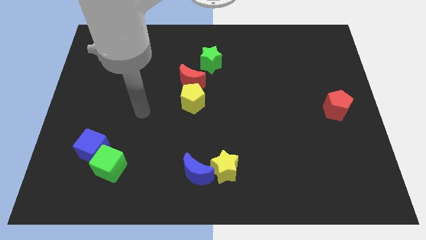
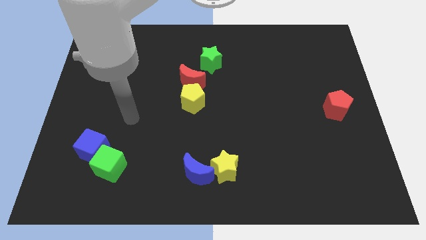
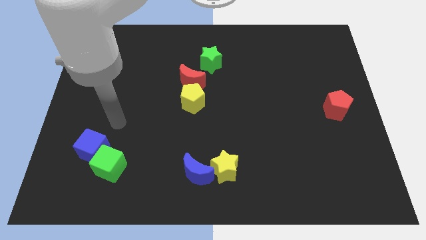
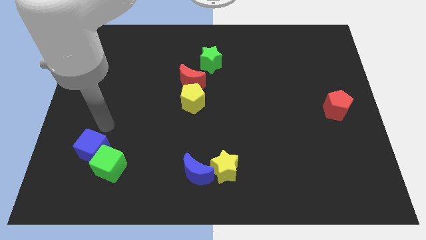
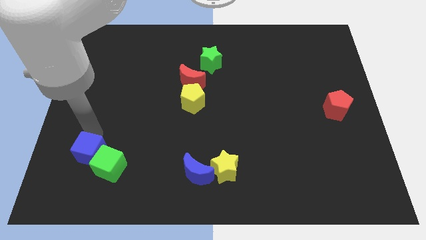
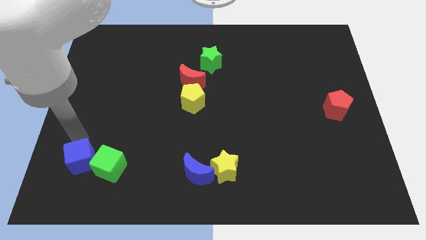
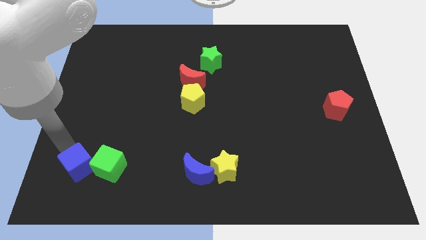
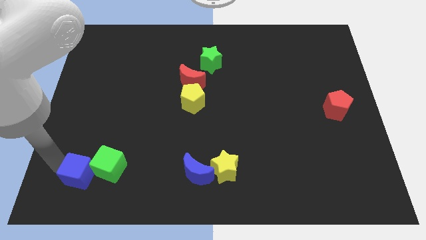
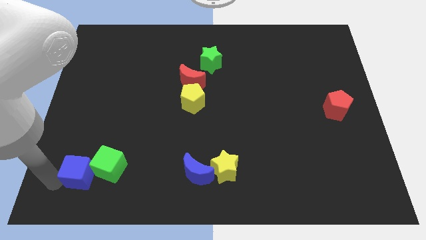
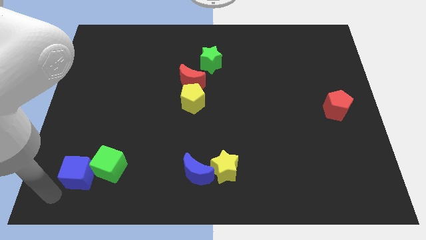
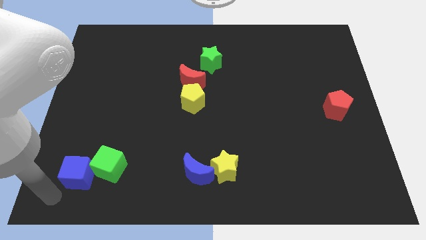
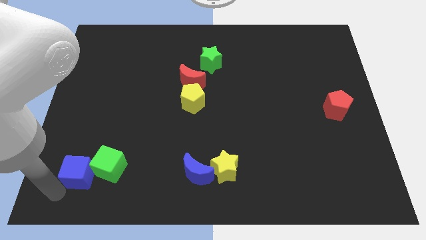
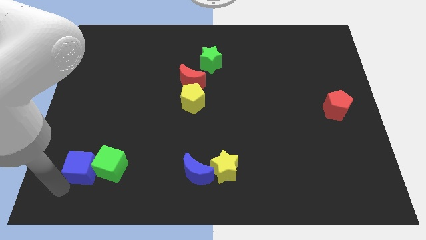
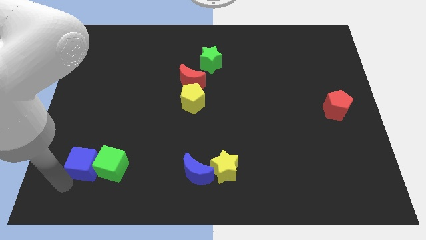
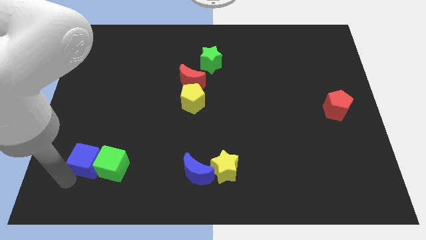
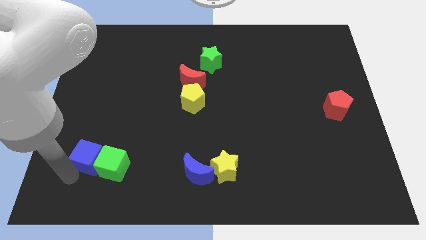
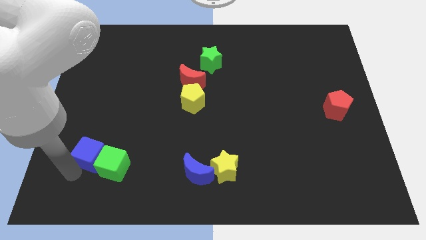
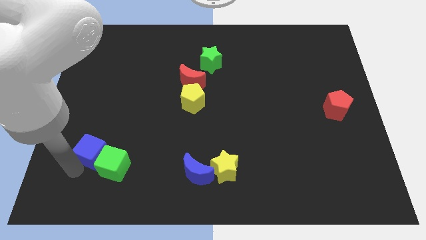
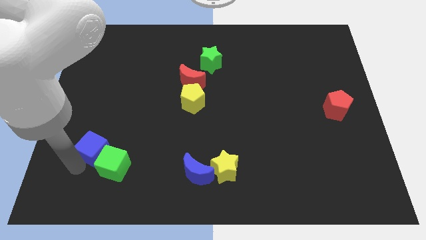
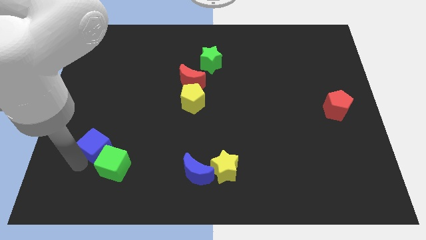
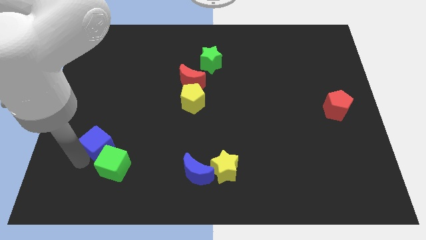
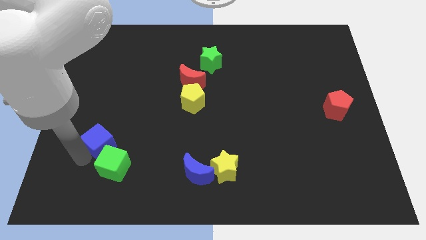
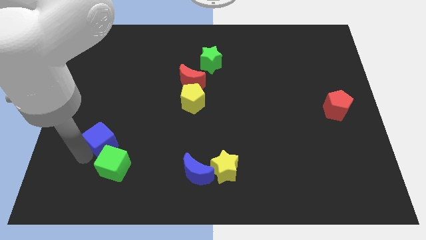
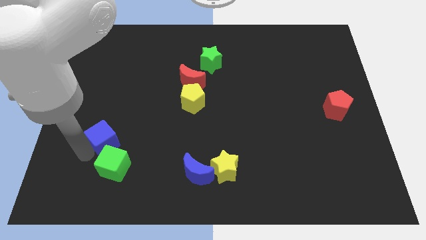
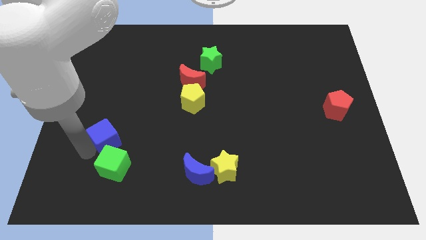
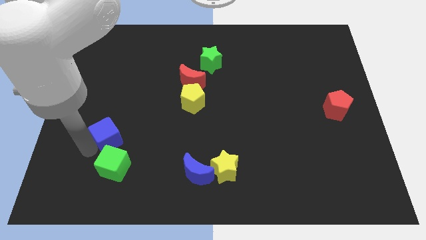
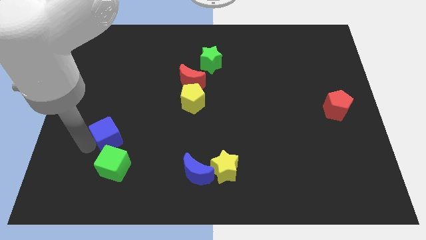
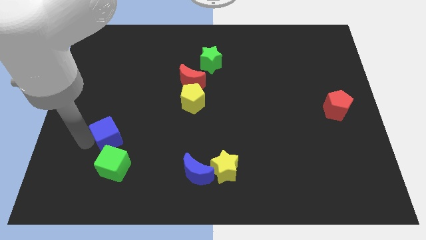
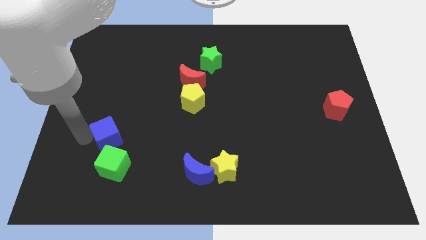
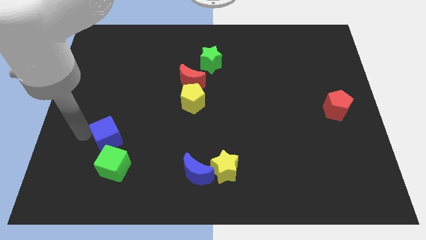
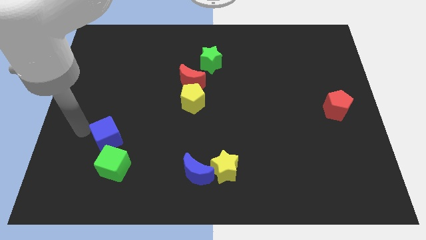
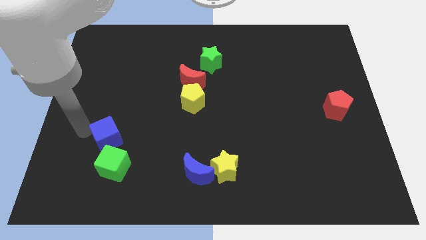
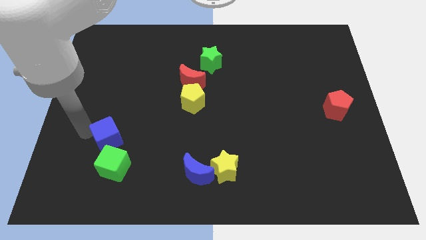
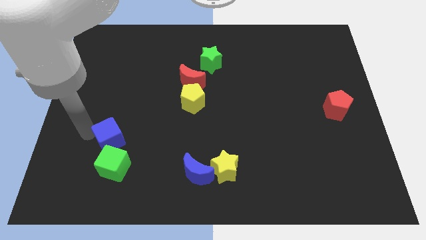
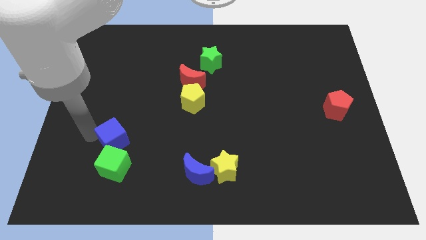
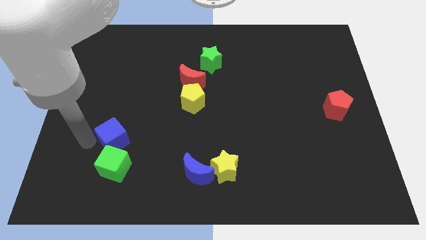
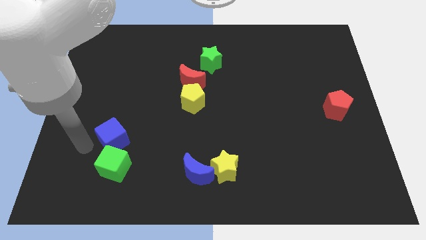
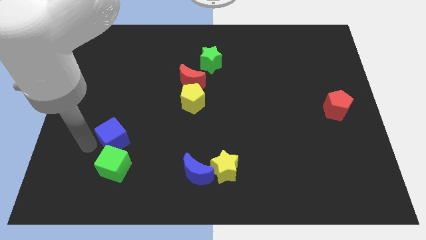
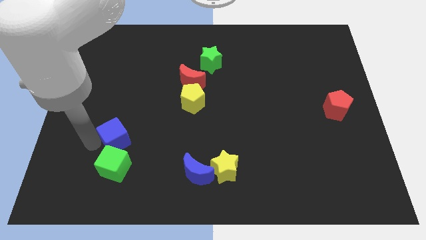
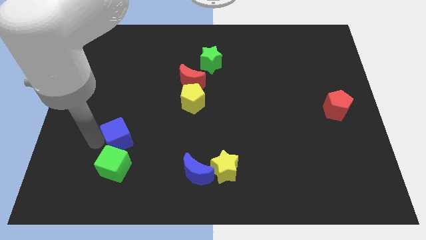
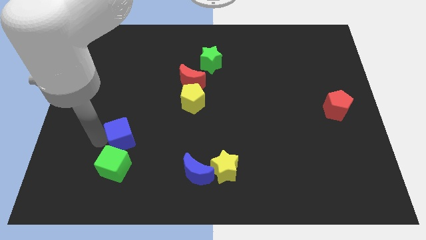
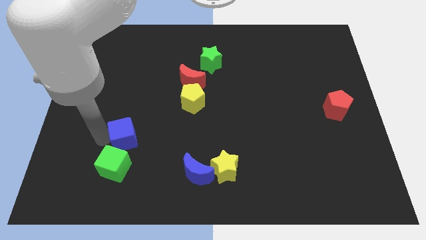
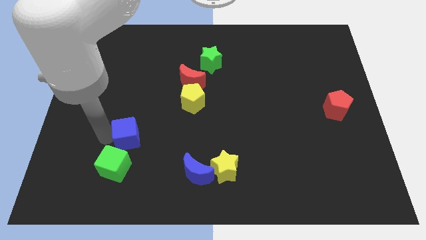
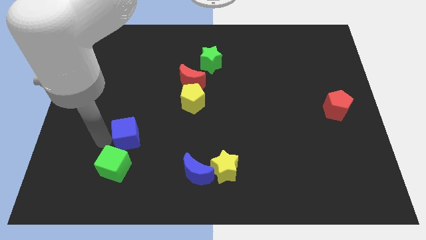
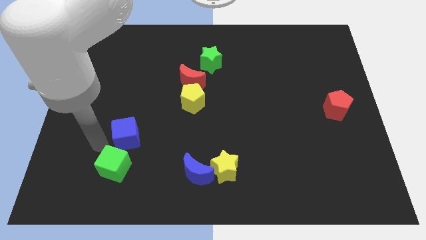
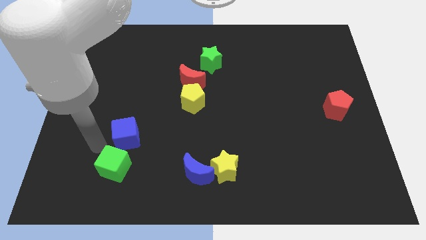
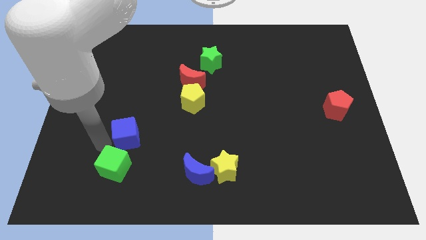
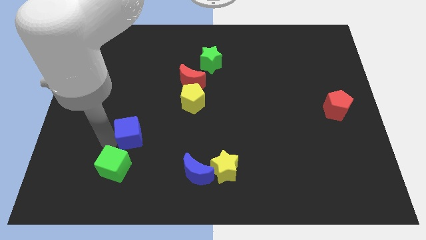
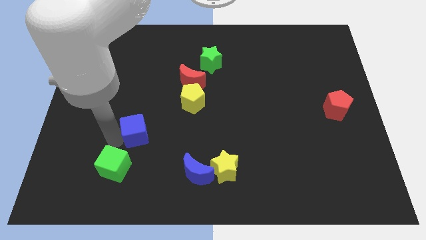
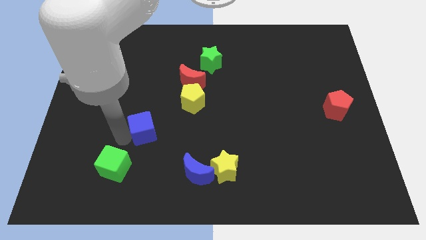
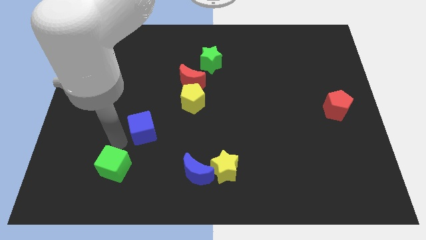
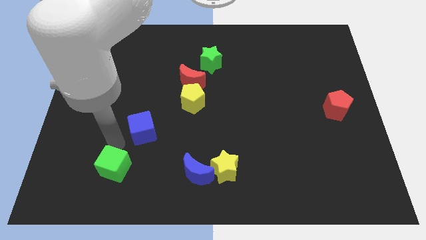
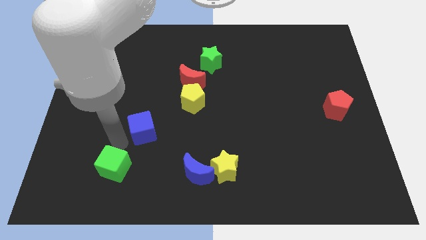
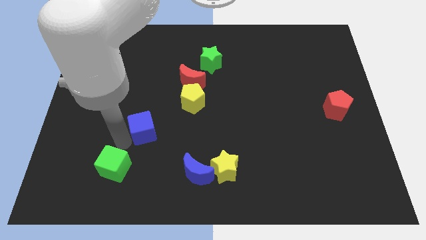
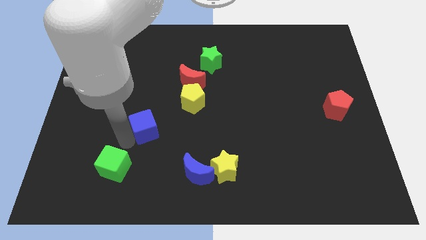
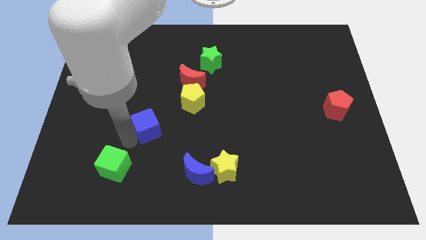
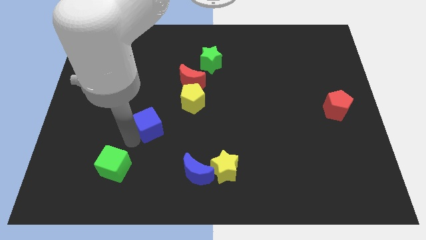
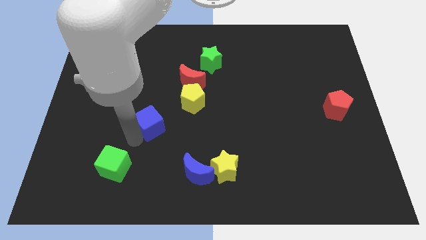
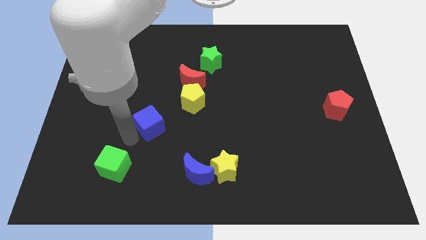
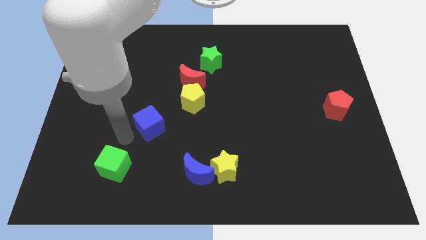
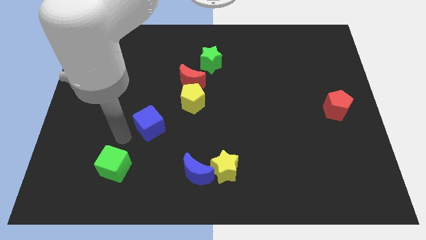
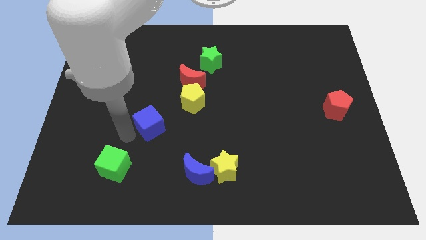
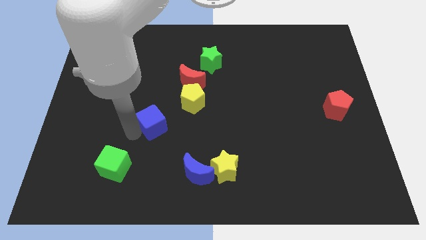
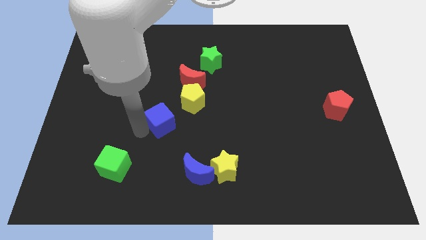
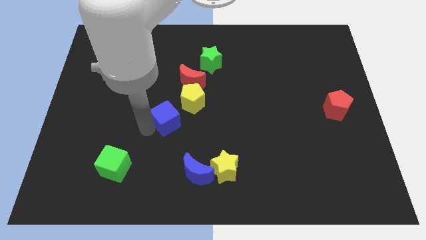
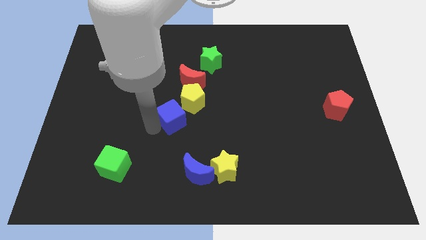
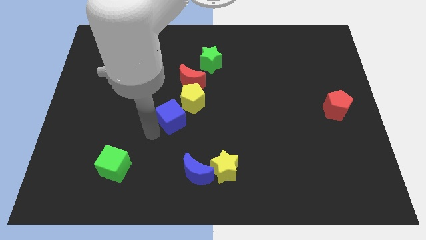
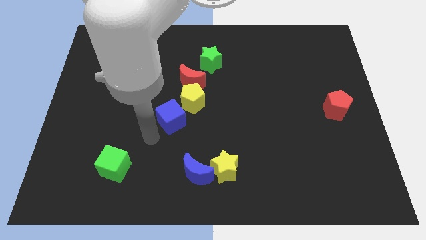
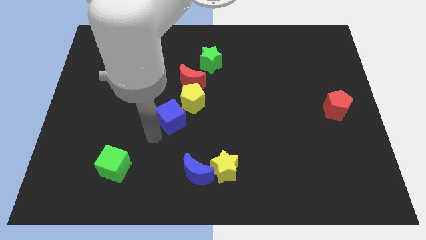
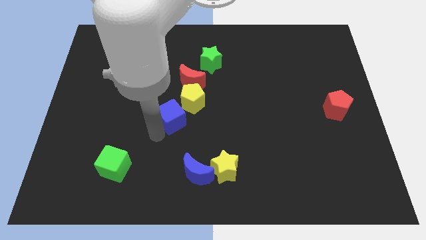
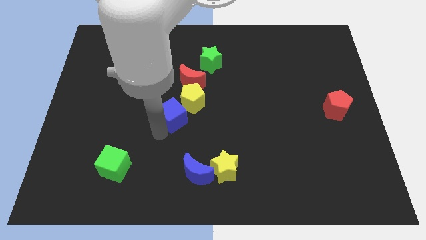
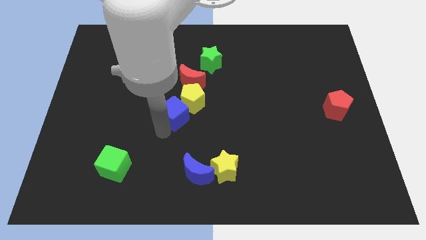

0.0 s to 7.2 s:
put the blue cube towards the yellow pentagon

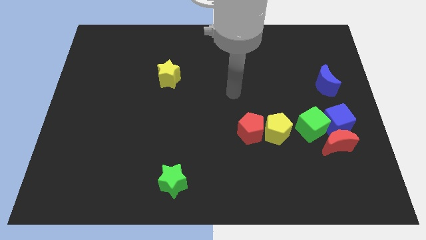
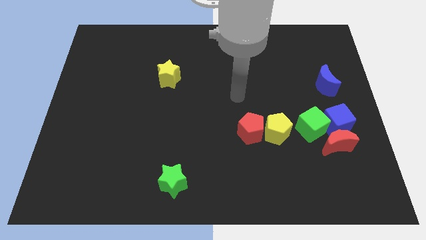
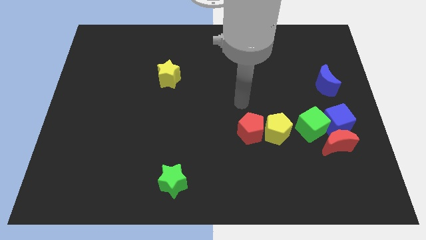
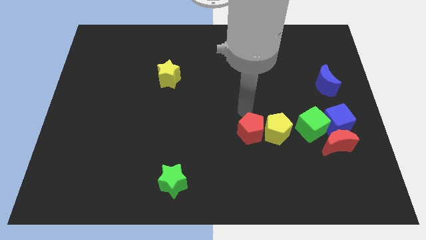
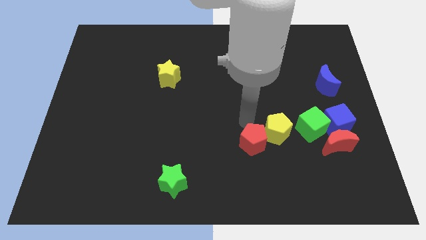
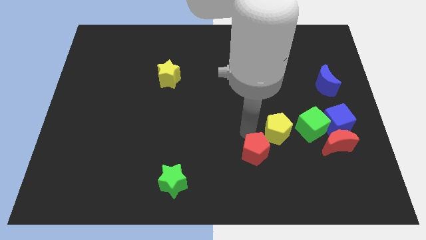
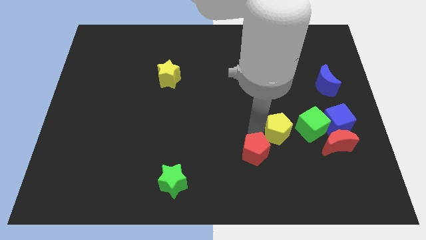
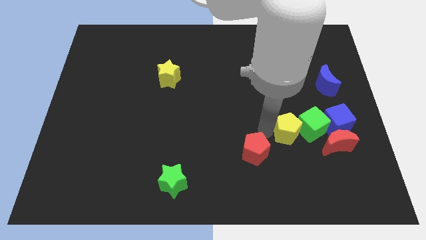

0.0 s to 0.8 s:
move the yellow pentagon close to the green cube
